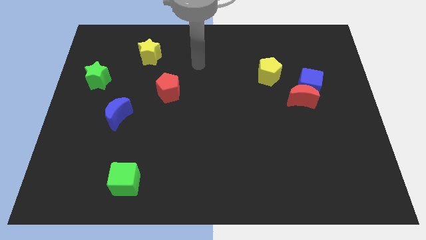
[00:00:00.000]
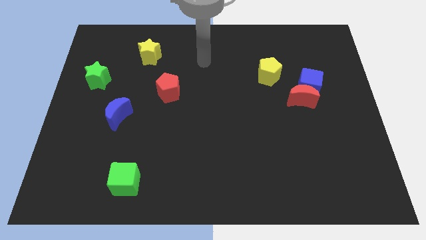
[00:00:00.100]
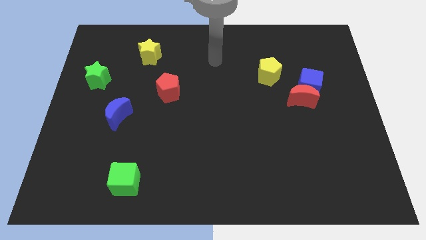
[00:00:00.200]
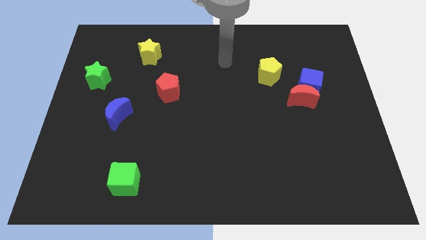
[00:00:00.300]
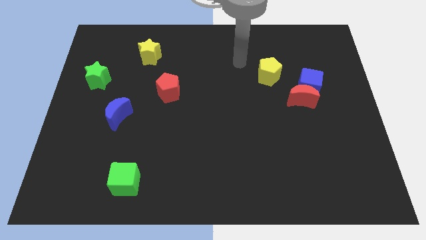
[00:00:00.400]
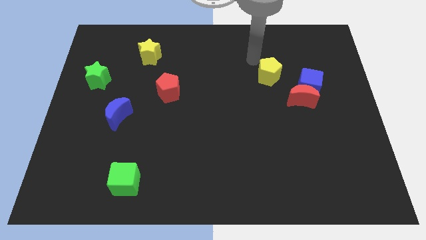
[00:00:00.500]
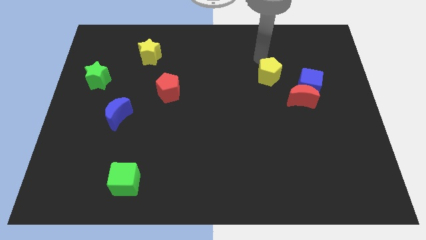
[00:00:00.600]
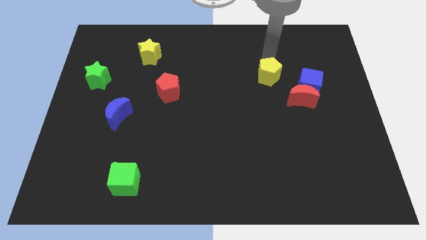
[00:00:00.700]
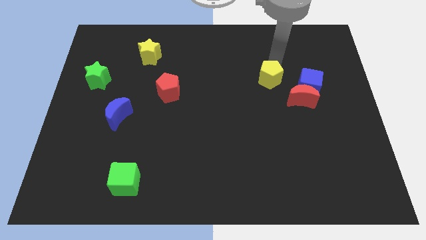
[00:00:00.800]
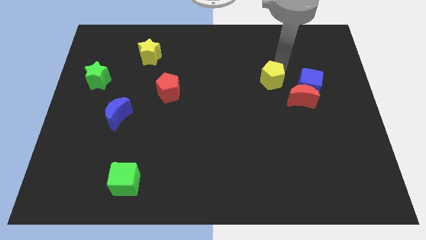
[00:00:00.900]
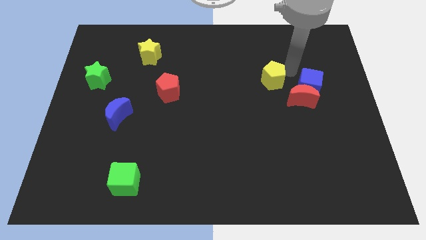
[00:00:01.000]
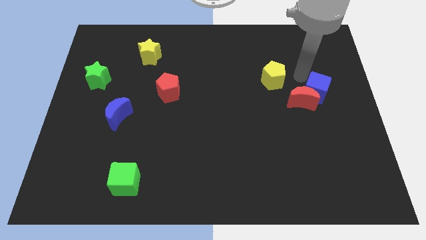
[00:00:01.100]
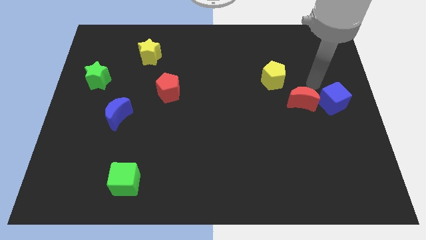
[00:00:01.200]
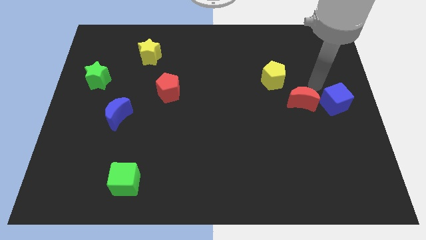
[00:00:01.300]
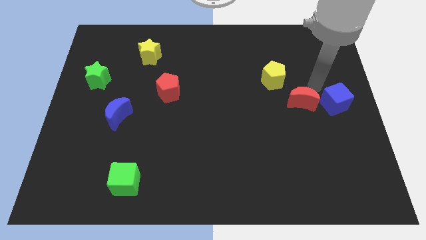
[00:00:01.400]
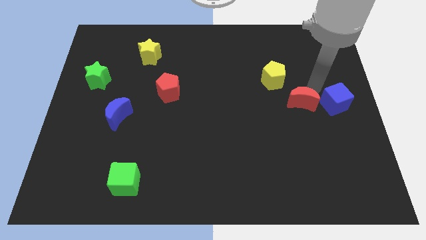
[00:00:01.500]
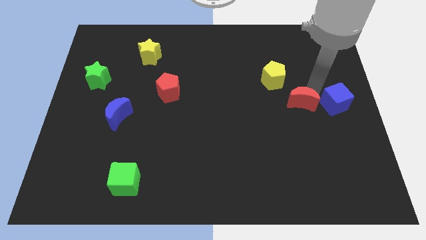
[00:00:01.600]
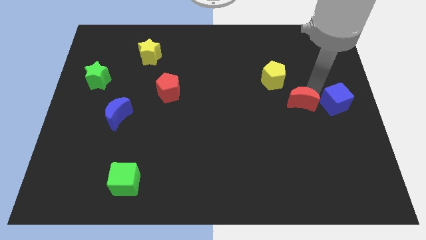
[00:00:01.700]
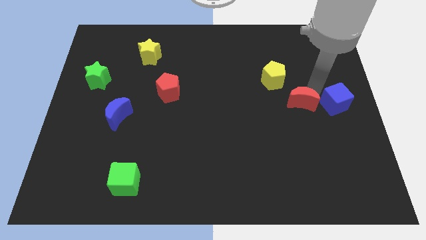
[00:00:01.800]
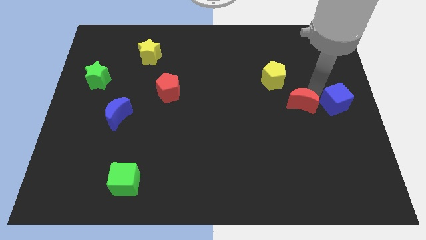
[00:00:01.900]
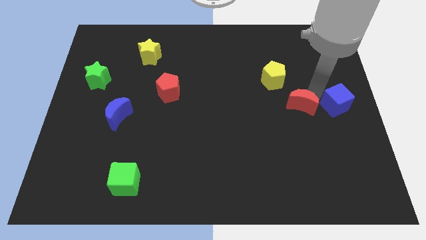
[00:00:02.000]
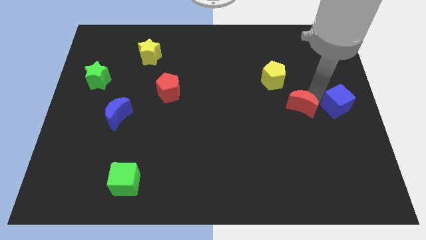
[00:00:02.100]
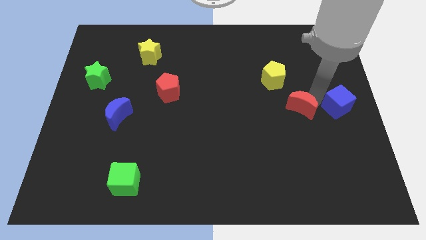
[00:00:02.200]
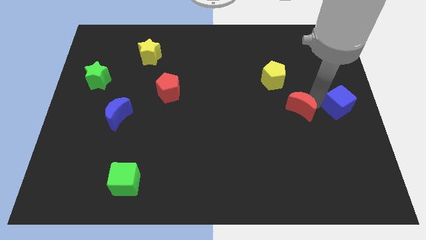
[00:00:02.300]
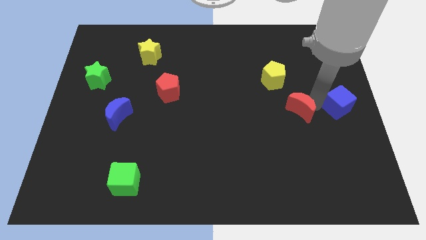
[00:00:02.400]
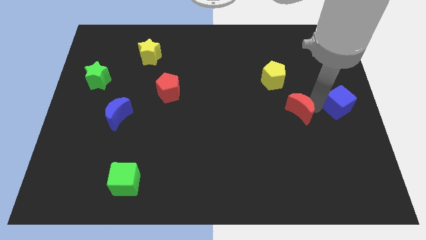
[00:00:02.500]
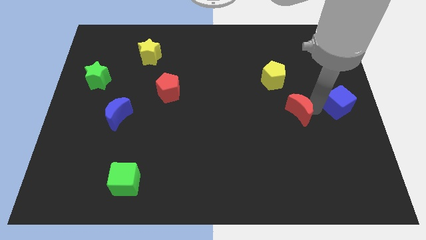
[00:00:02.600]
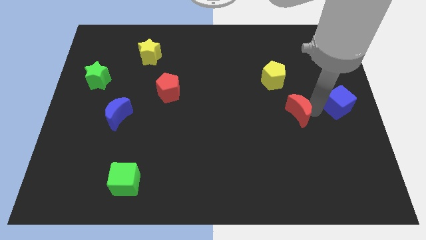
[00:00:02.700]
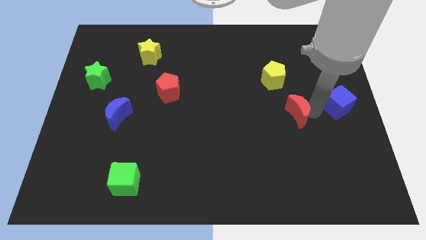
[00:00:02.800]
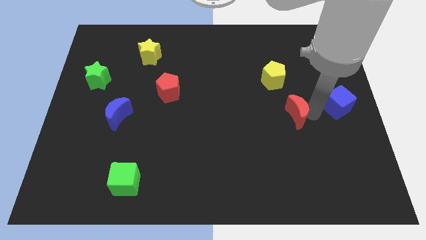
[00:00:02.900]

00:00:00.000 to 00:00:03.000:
move the red moon away from the blue cube

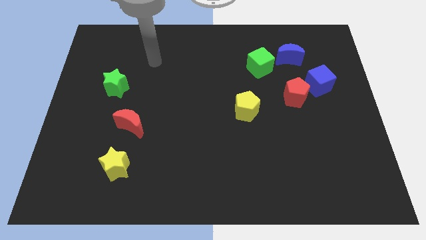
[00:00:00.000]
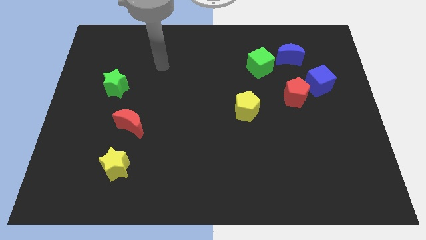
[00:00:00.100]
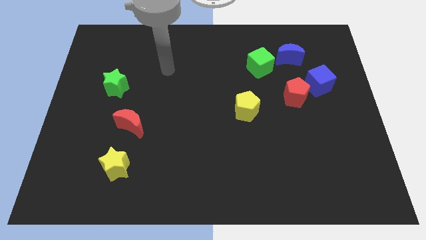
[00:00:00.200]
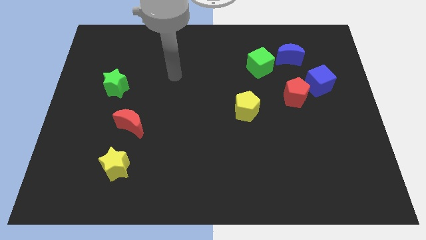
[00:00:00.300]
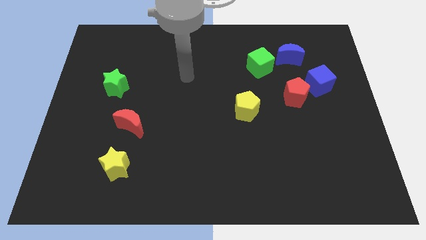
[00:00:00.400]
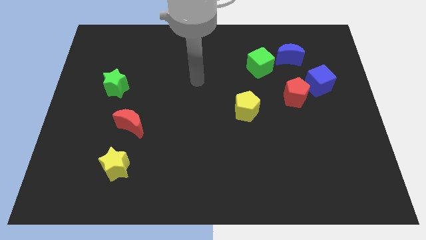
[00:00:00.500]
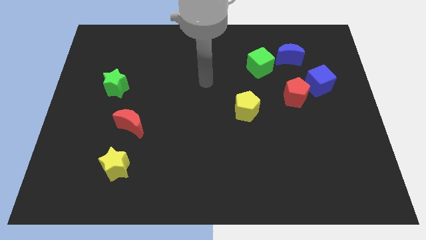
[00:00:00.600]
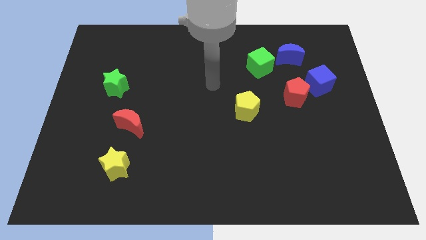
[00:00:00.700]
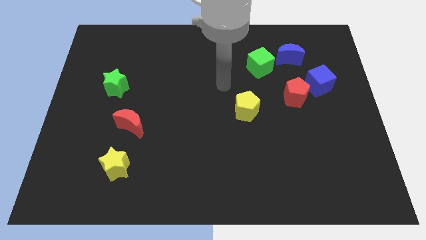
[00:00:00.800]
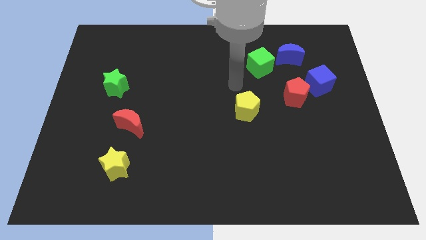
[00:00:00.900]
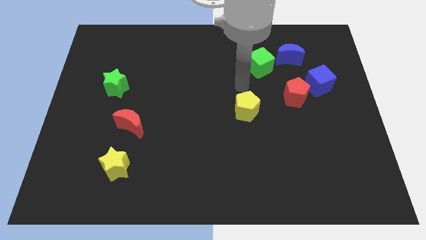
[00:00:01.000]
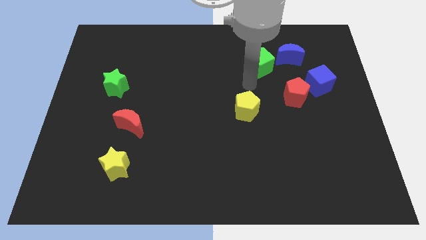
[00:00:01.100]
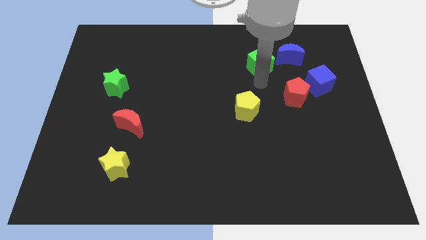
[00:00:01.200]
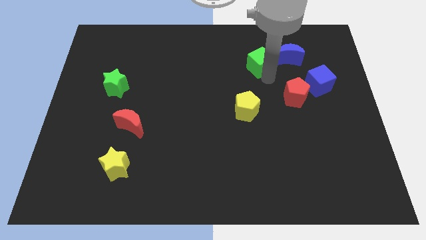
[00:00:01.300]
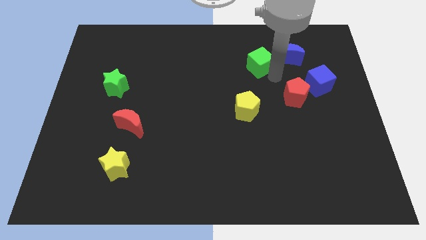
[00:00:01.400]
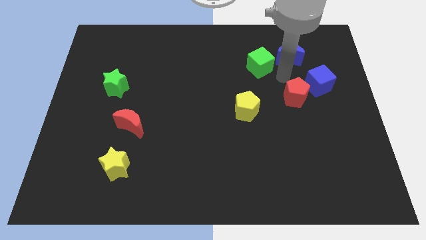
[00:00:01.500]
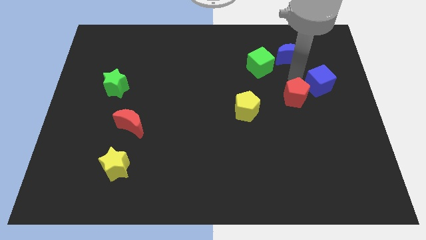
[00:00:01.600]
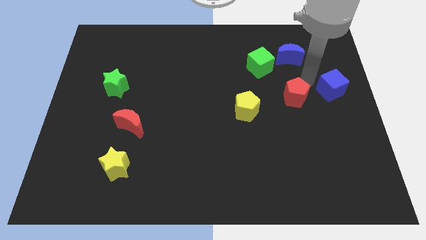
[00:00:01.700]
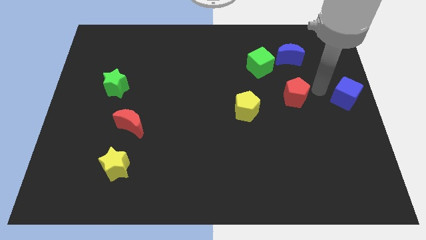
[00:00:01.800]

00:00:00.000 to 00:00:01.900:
pull the red pentagon apart from the blue cube

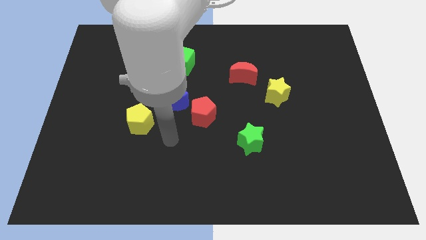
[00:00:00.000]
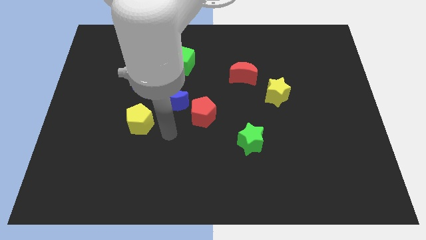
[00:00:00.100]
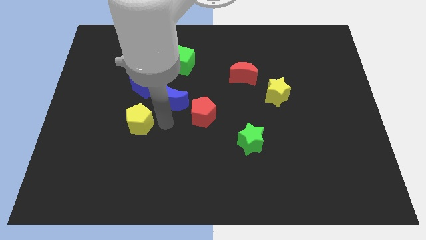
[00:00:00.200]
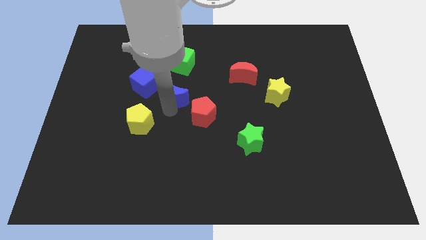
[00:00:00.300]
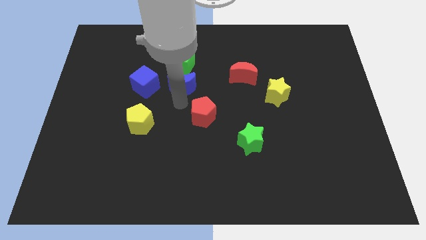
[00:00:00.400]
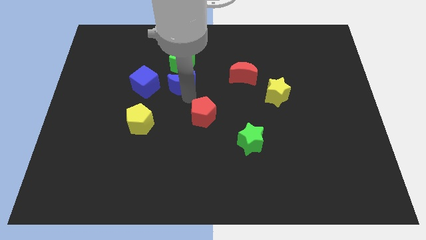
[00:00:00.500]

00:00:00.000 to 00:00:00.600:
pull the red pentagon apart from the blue moon

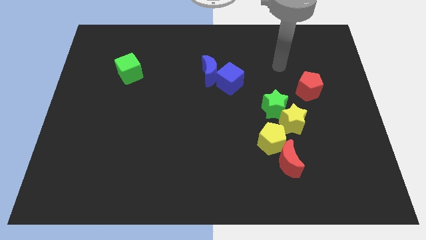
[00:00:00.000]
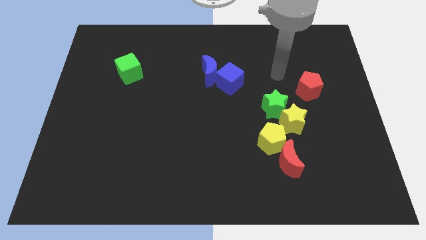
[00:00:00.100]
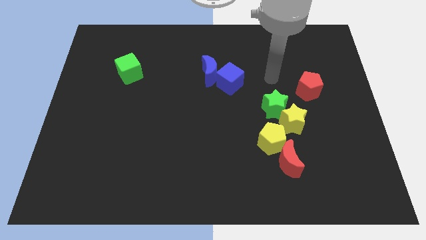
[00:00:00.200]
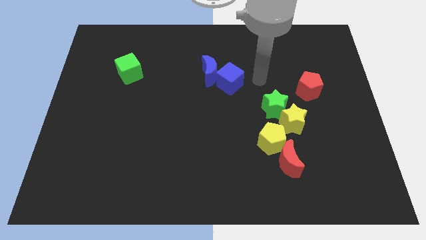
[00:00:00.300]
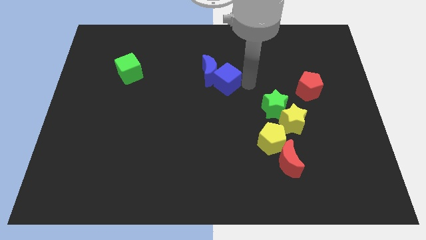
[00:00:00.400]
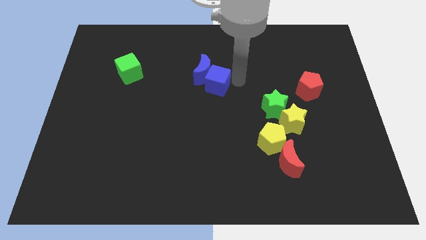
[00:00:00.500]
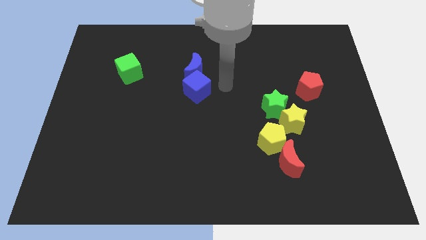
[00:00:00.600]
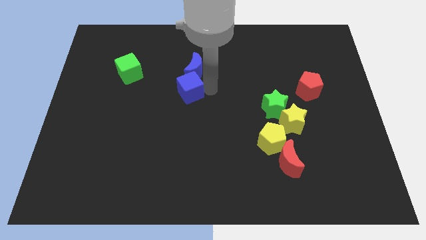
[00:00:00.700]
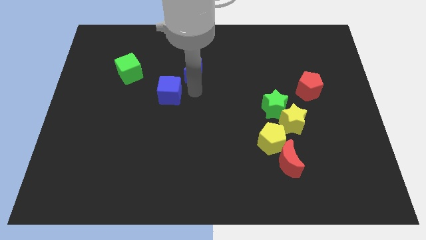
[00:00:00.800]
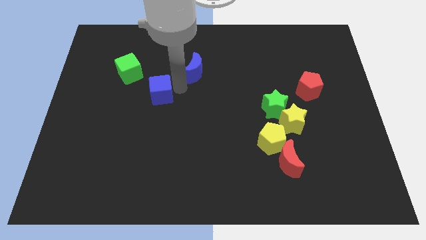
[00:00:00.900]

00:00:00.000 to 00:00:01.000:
separate the blue moon from the blue cube

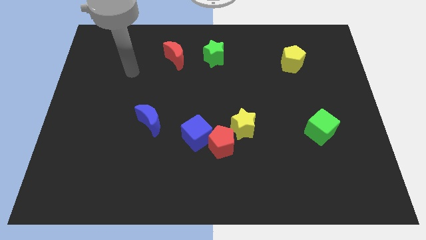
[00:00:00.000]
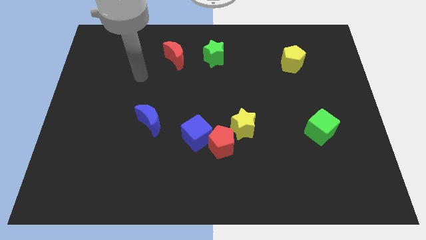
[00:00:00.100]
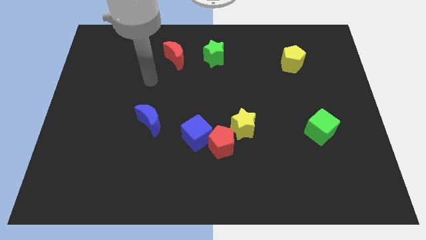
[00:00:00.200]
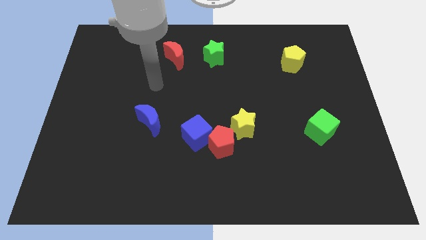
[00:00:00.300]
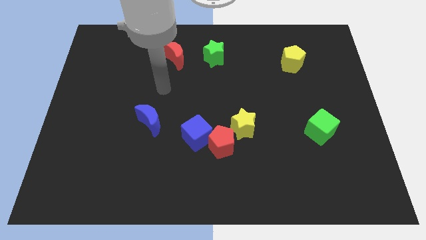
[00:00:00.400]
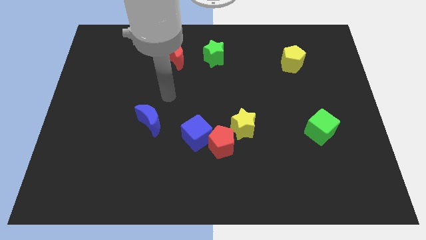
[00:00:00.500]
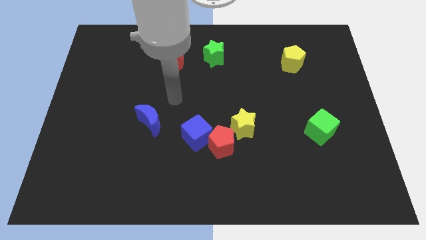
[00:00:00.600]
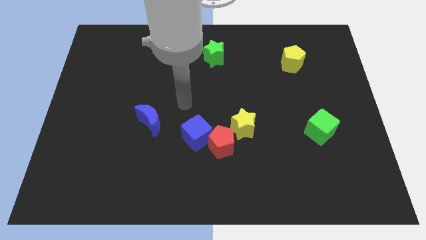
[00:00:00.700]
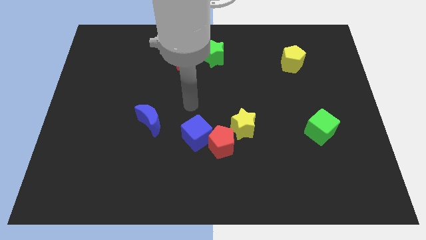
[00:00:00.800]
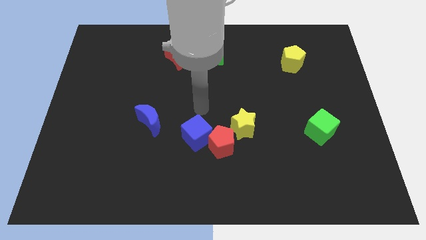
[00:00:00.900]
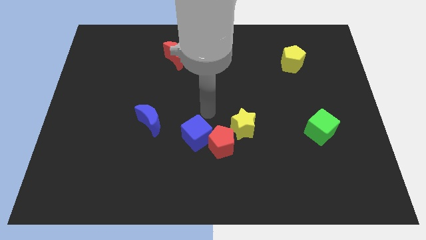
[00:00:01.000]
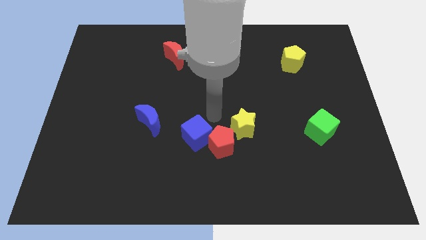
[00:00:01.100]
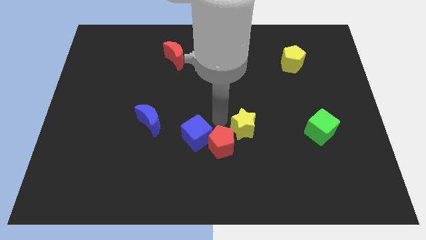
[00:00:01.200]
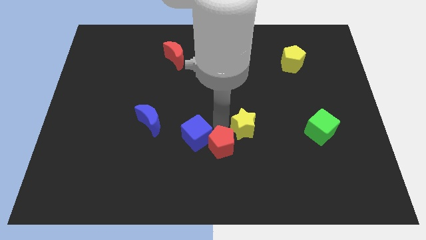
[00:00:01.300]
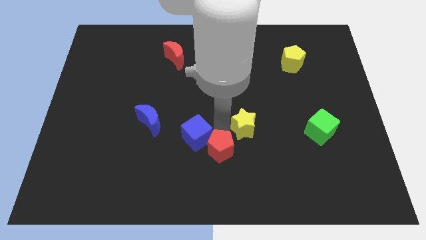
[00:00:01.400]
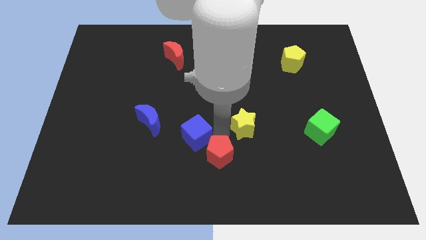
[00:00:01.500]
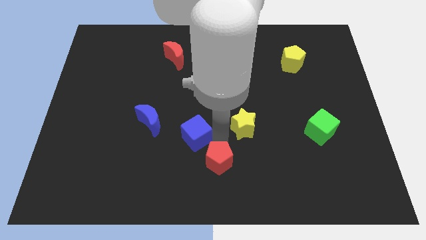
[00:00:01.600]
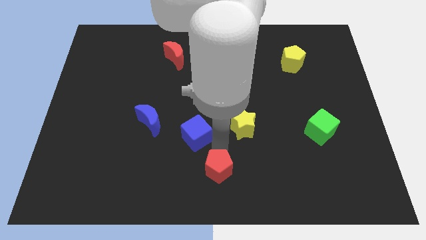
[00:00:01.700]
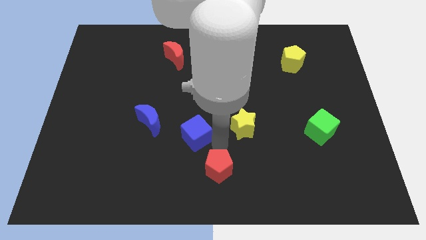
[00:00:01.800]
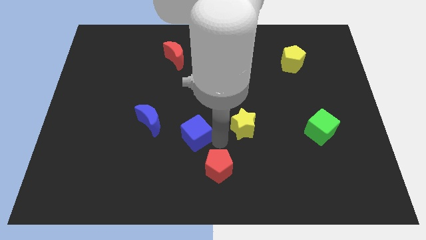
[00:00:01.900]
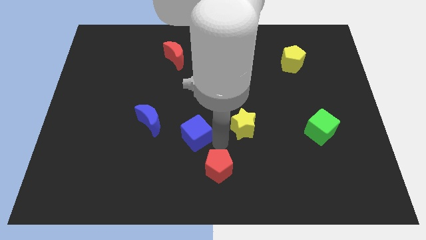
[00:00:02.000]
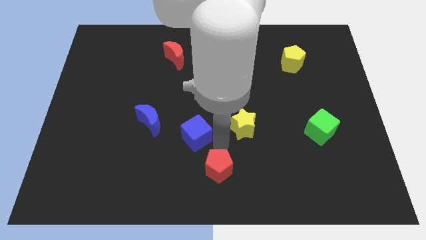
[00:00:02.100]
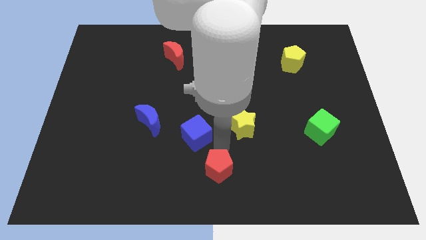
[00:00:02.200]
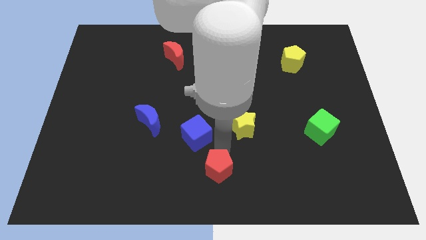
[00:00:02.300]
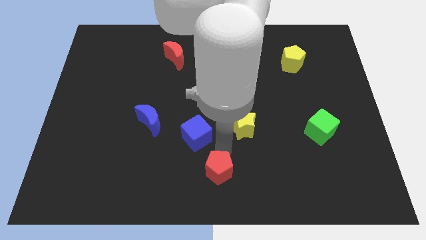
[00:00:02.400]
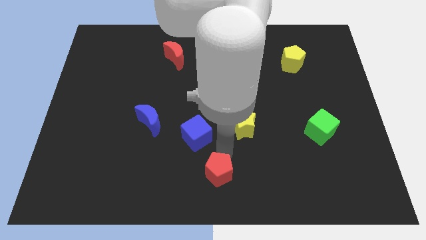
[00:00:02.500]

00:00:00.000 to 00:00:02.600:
move the red pentagon away from the blue cube and yellow star

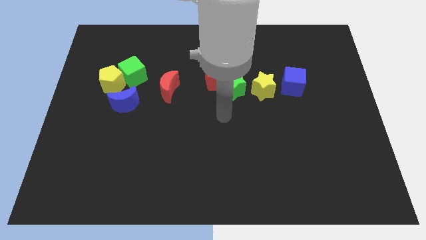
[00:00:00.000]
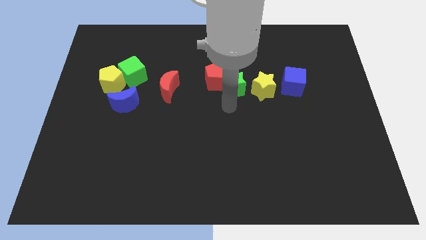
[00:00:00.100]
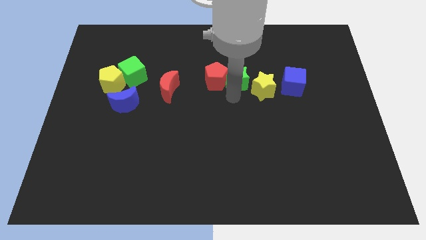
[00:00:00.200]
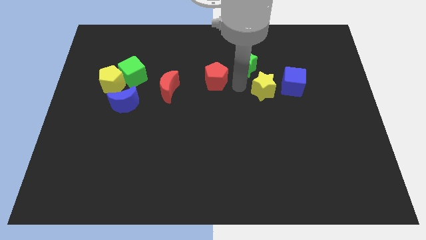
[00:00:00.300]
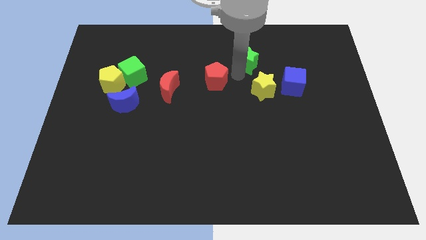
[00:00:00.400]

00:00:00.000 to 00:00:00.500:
move the red pentagon away from the green star
